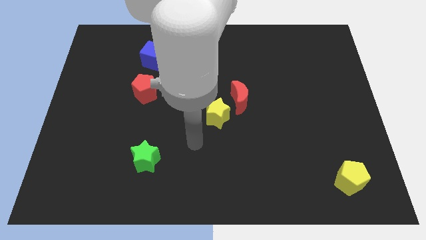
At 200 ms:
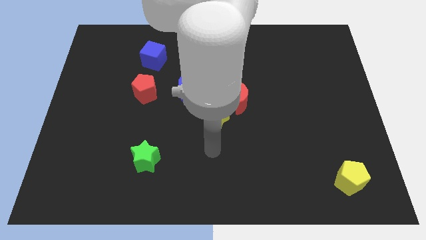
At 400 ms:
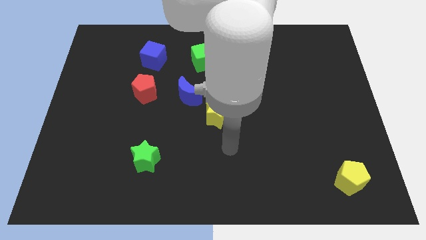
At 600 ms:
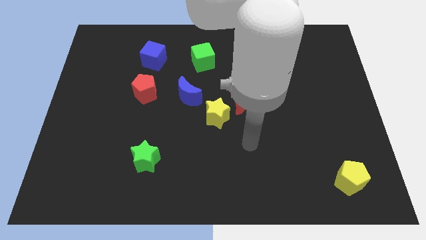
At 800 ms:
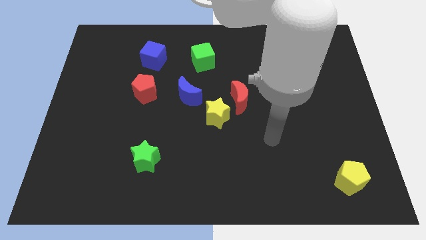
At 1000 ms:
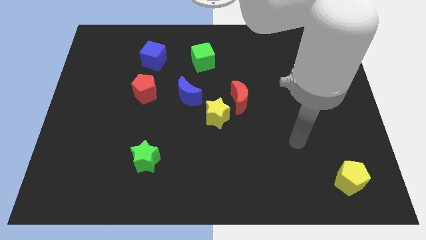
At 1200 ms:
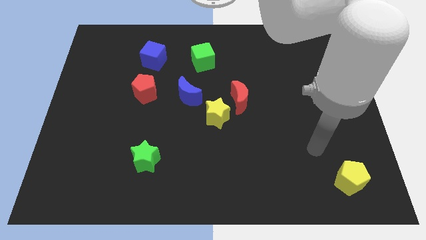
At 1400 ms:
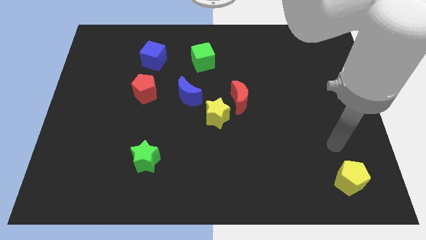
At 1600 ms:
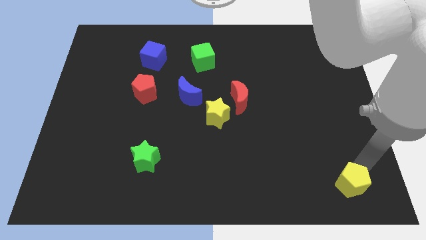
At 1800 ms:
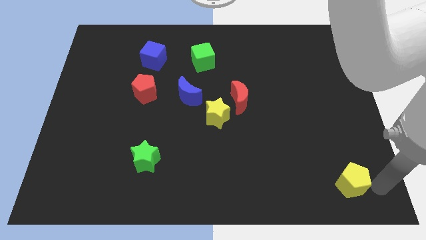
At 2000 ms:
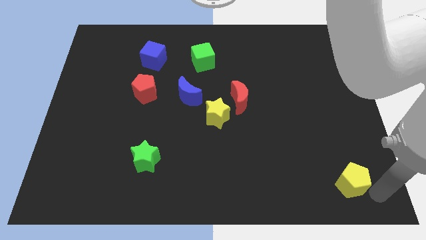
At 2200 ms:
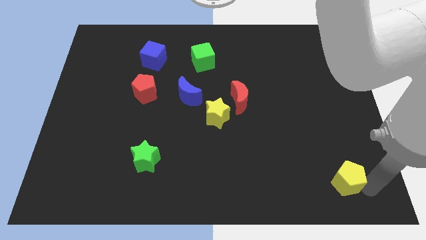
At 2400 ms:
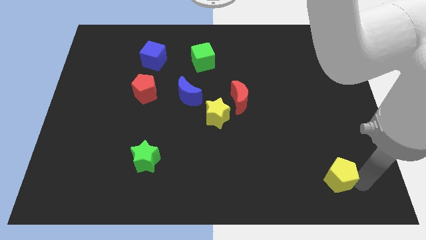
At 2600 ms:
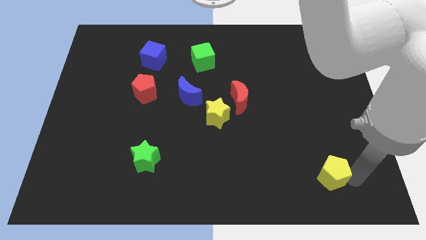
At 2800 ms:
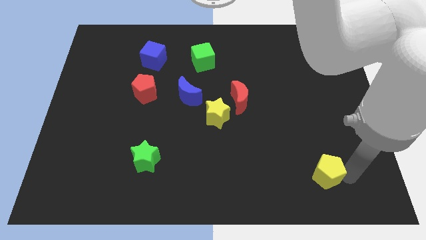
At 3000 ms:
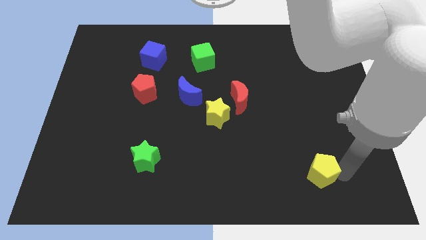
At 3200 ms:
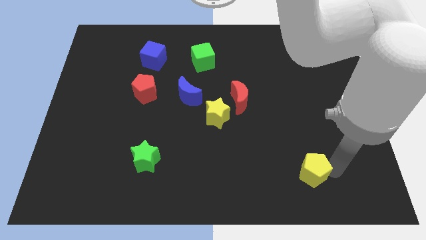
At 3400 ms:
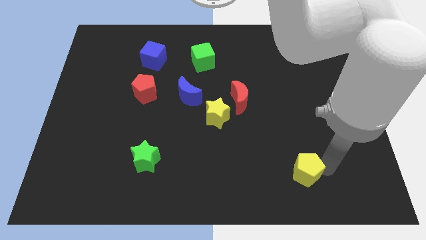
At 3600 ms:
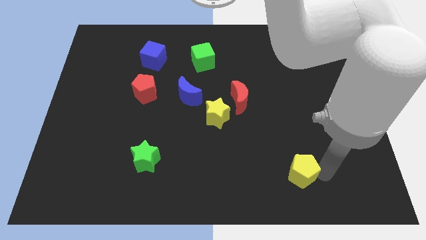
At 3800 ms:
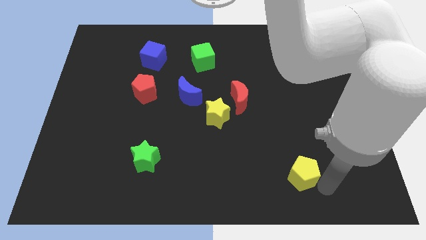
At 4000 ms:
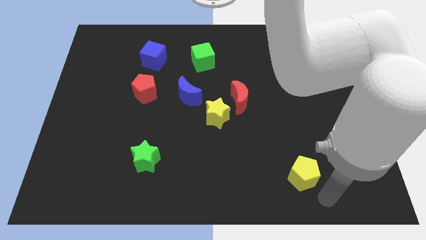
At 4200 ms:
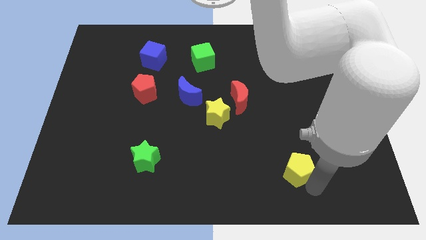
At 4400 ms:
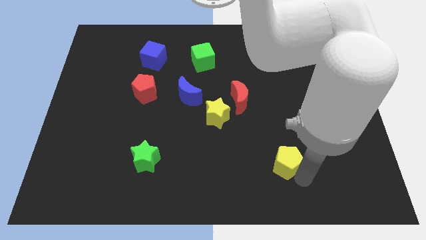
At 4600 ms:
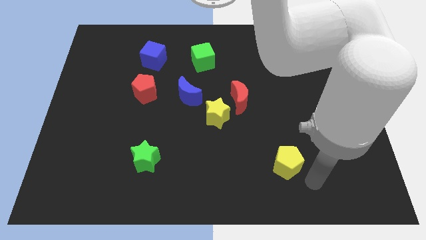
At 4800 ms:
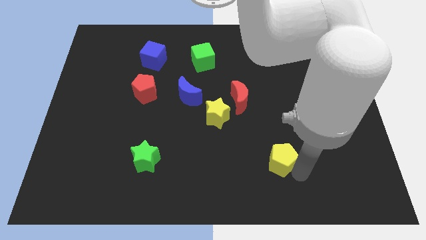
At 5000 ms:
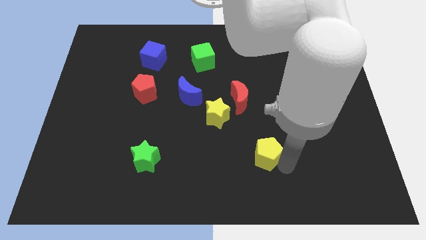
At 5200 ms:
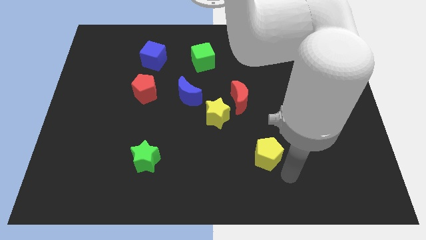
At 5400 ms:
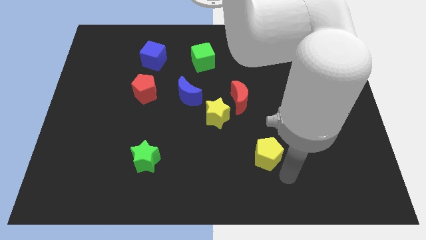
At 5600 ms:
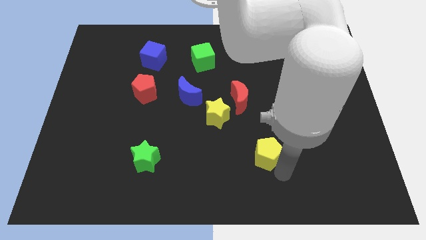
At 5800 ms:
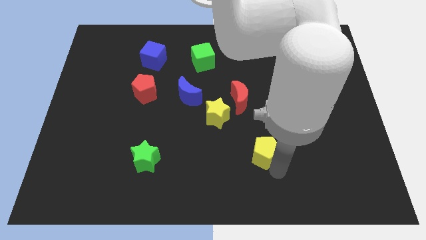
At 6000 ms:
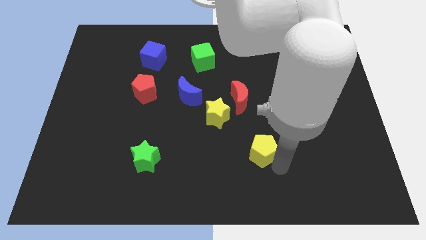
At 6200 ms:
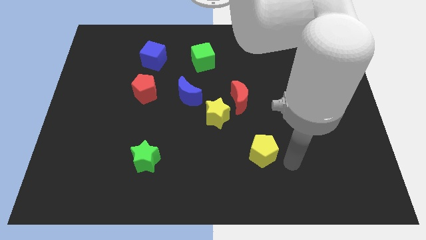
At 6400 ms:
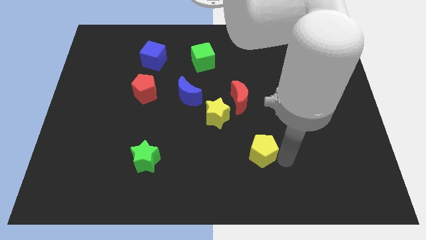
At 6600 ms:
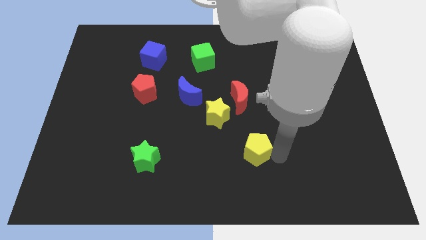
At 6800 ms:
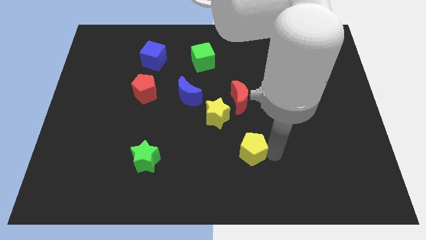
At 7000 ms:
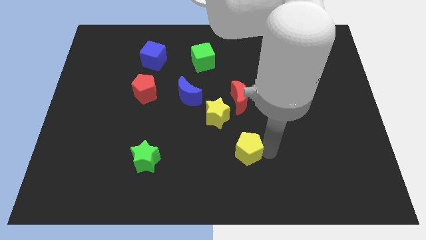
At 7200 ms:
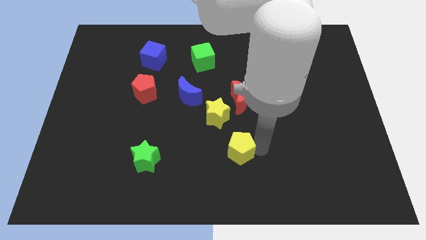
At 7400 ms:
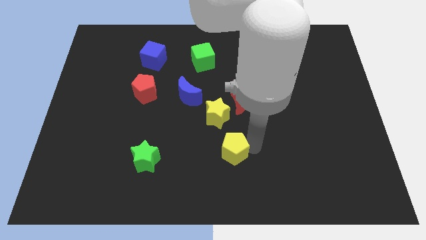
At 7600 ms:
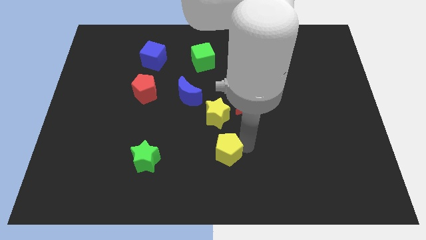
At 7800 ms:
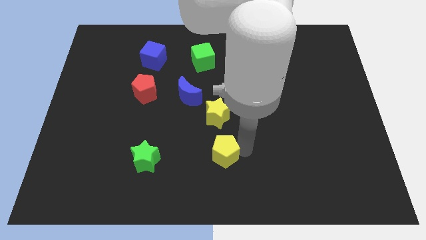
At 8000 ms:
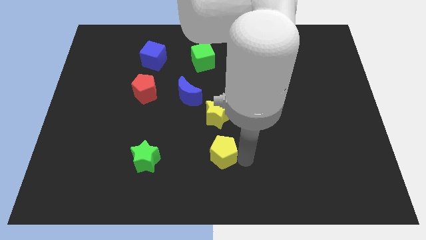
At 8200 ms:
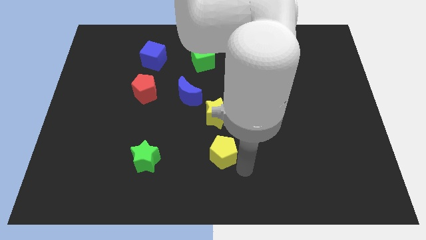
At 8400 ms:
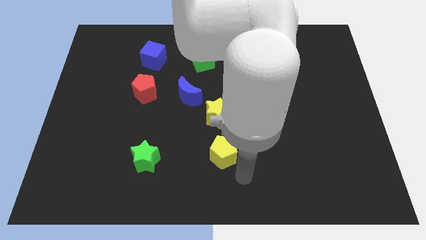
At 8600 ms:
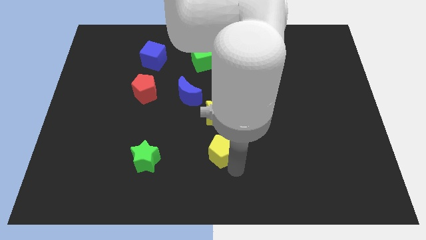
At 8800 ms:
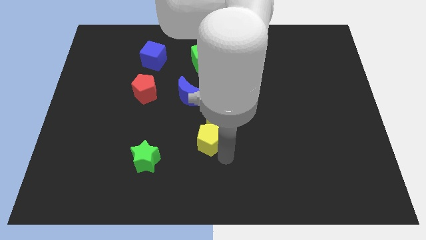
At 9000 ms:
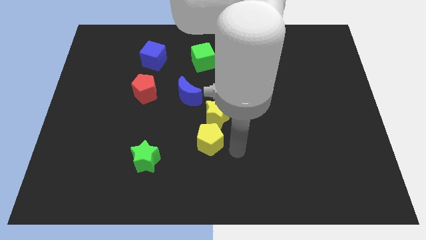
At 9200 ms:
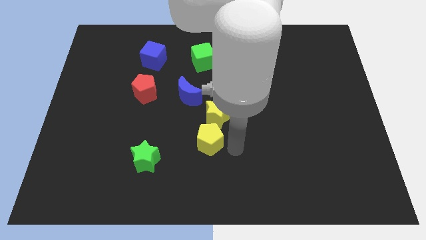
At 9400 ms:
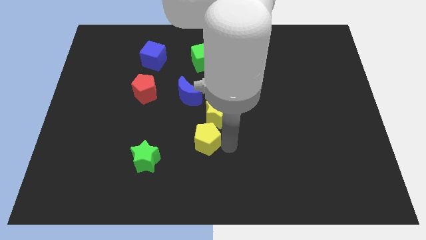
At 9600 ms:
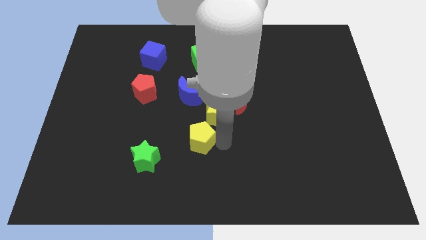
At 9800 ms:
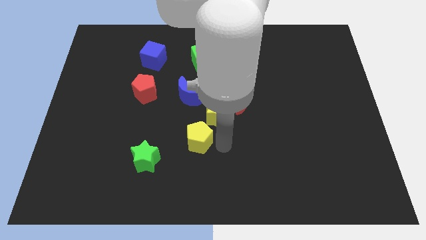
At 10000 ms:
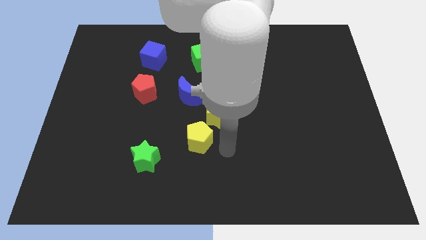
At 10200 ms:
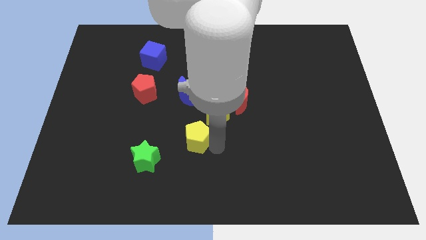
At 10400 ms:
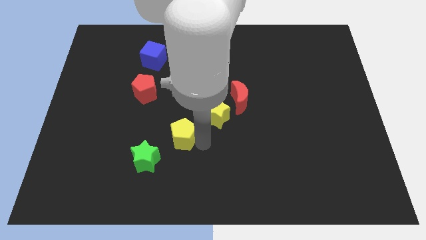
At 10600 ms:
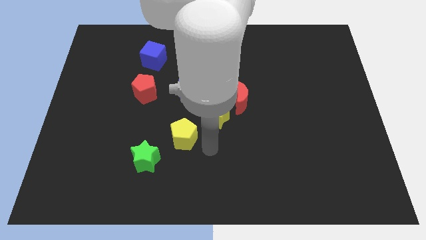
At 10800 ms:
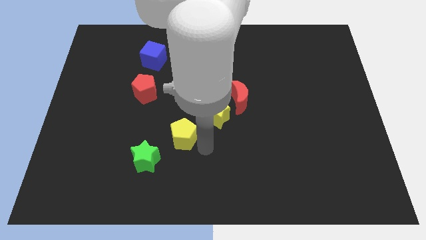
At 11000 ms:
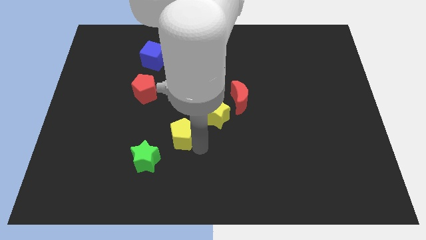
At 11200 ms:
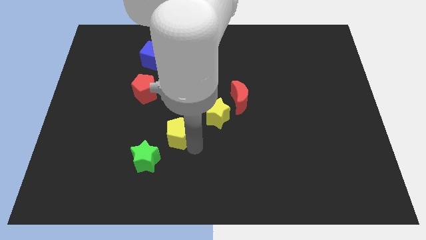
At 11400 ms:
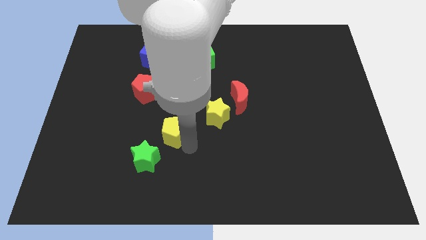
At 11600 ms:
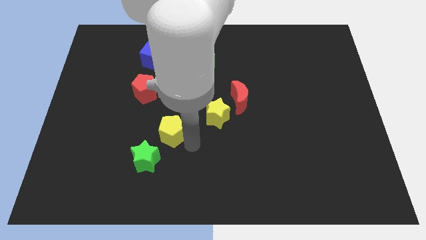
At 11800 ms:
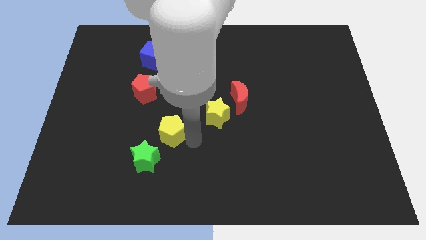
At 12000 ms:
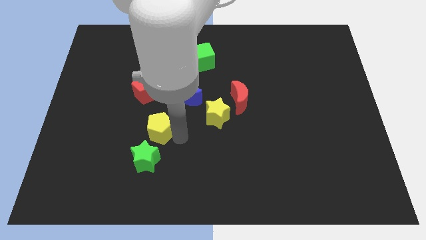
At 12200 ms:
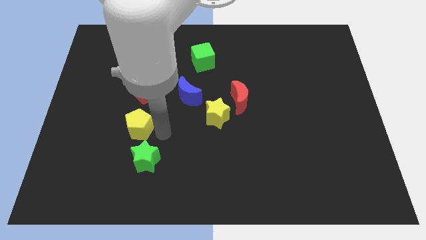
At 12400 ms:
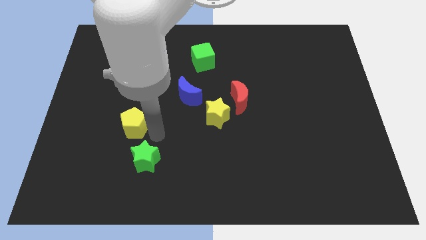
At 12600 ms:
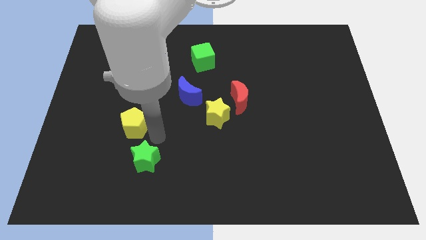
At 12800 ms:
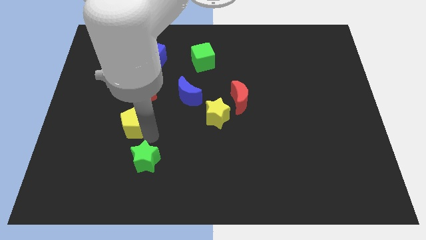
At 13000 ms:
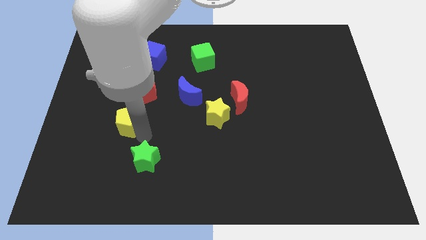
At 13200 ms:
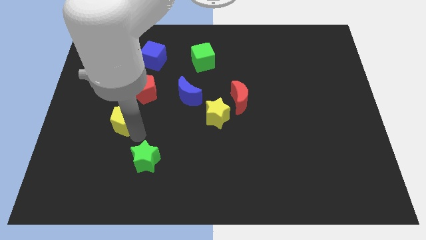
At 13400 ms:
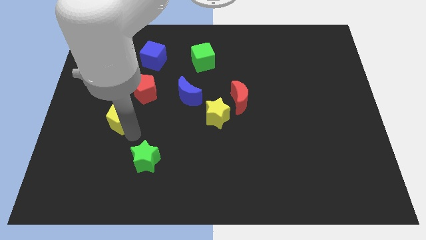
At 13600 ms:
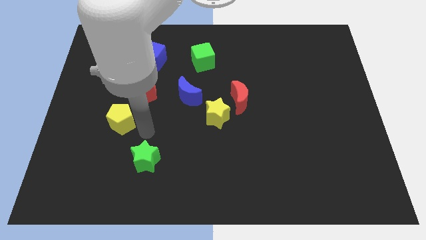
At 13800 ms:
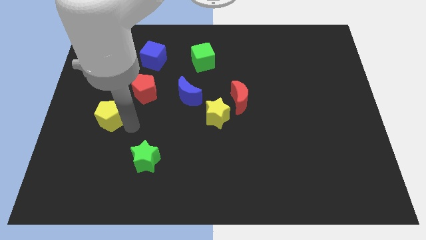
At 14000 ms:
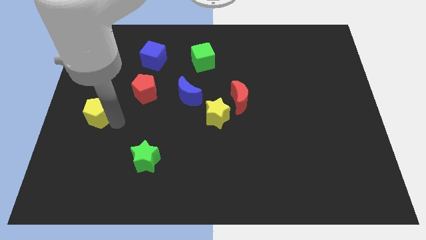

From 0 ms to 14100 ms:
move the yellow pentagon to the left side
